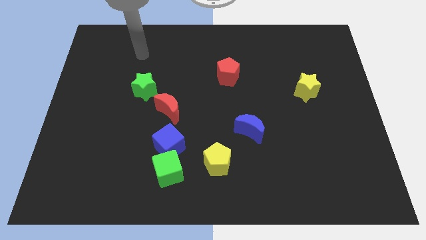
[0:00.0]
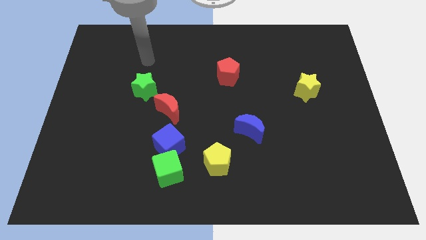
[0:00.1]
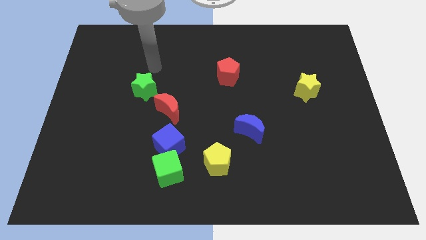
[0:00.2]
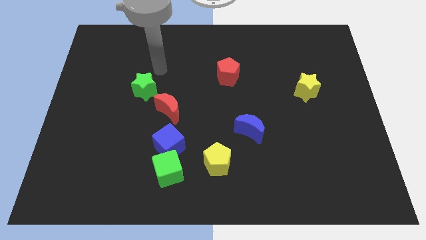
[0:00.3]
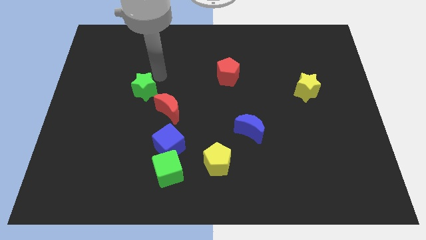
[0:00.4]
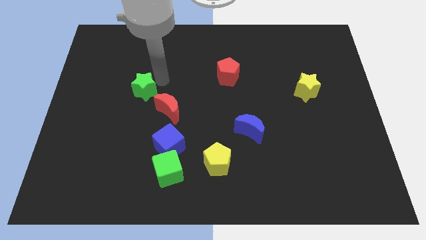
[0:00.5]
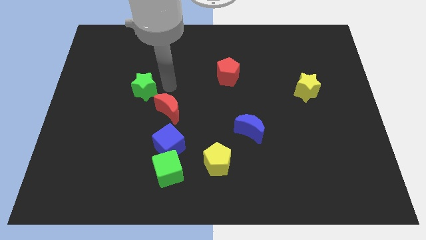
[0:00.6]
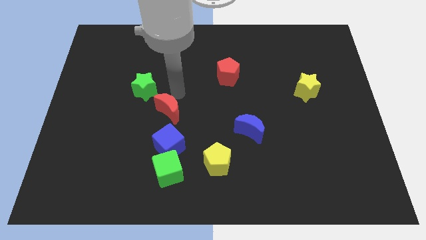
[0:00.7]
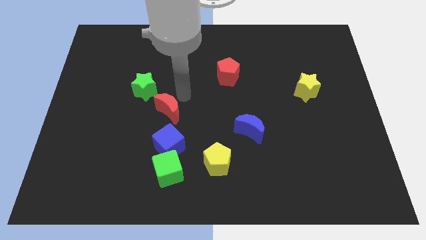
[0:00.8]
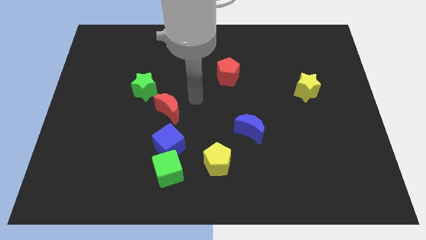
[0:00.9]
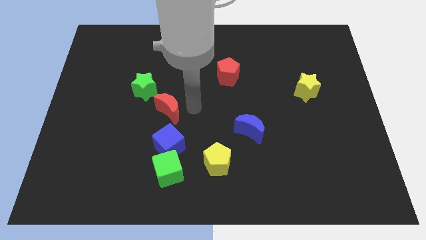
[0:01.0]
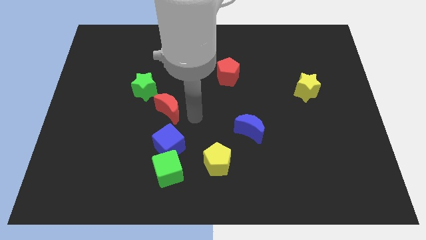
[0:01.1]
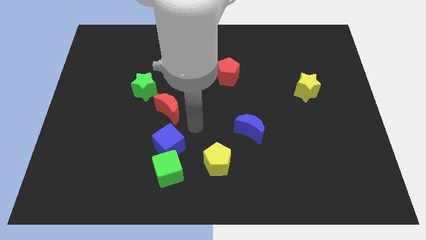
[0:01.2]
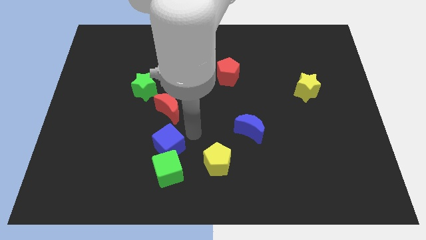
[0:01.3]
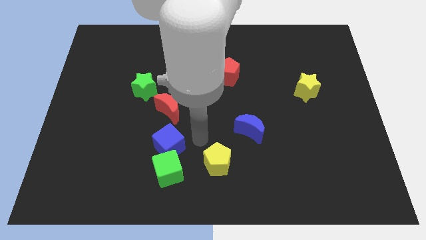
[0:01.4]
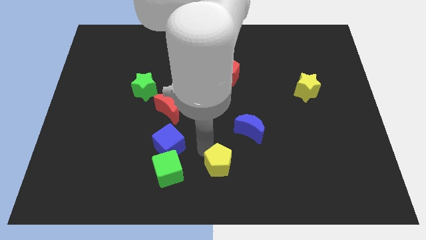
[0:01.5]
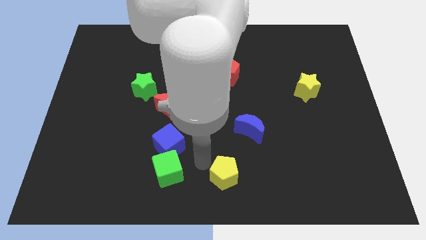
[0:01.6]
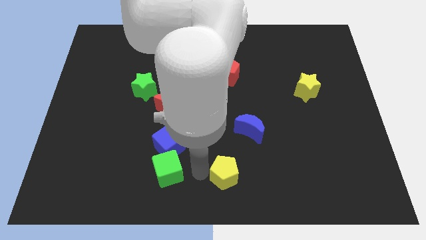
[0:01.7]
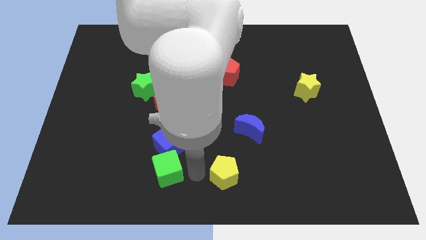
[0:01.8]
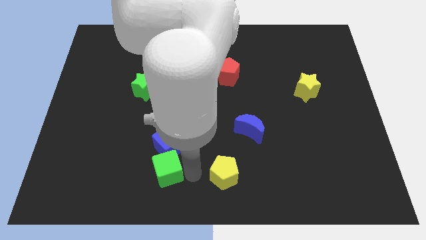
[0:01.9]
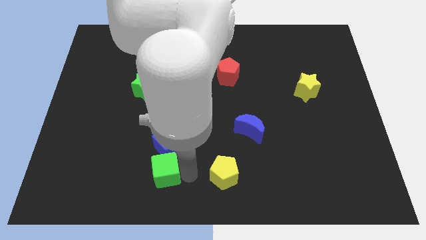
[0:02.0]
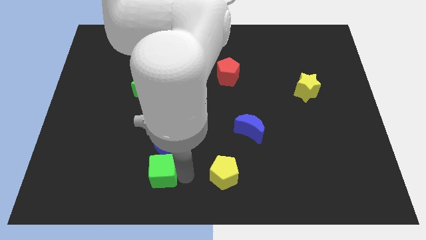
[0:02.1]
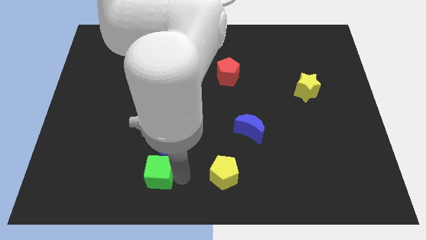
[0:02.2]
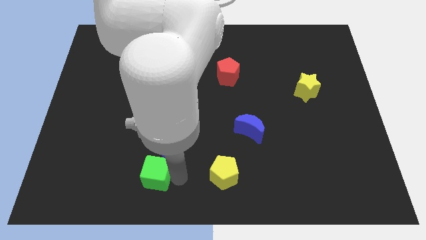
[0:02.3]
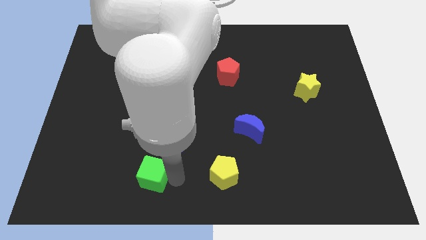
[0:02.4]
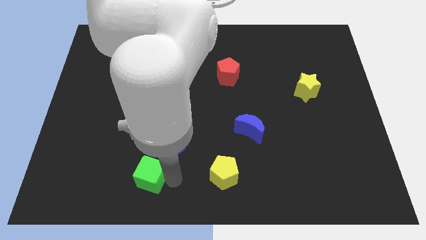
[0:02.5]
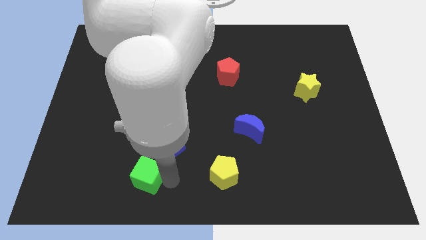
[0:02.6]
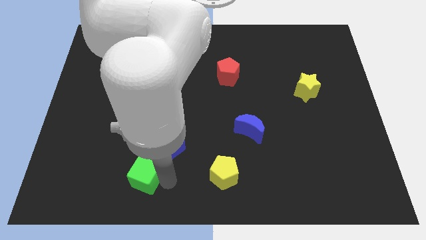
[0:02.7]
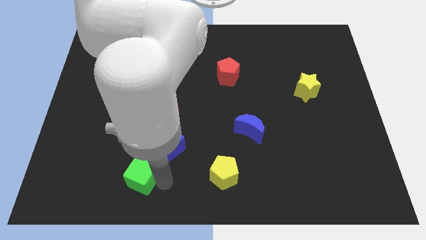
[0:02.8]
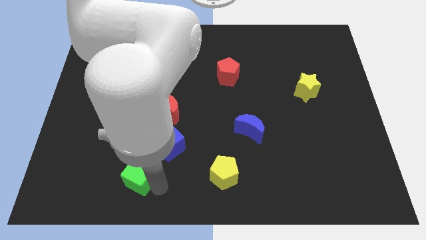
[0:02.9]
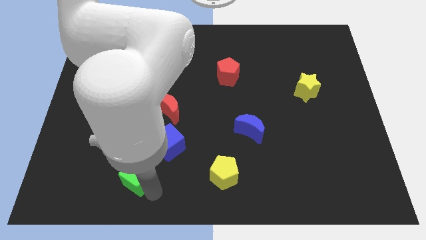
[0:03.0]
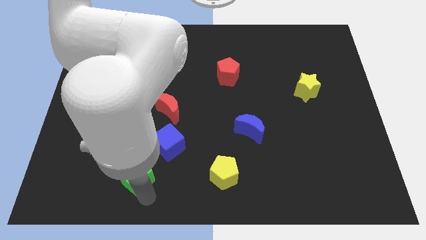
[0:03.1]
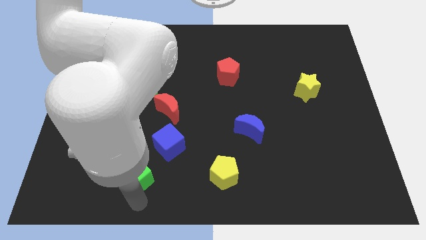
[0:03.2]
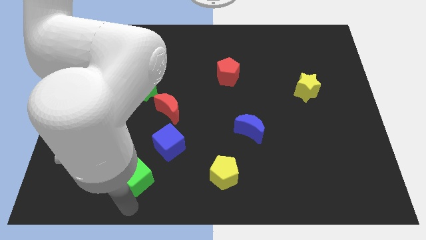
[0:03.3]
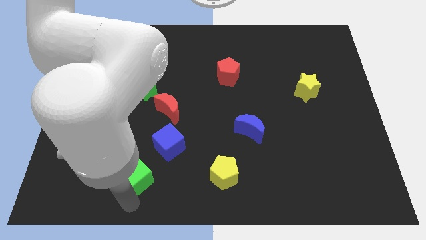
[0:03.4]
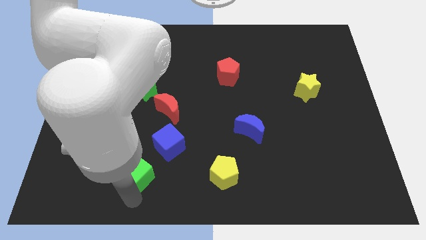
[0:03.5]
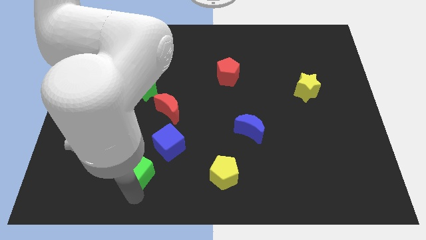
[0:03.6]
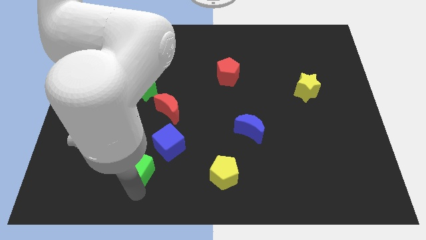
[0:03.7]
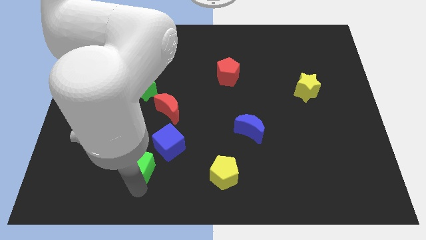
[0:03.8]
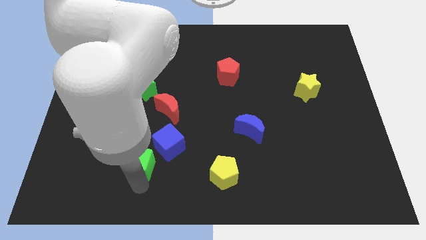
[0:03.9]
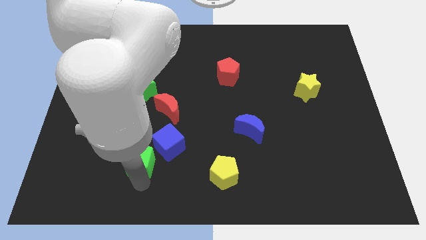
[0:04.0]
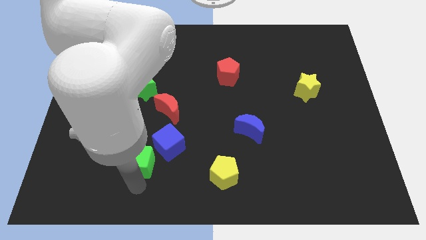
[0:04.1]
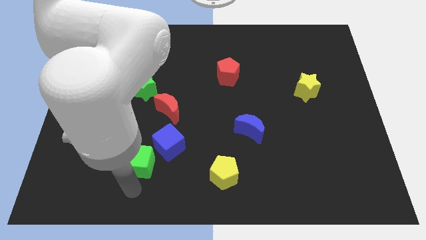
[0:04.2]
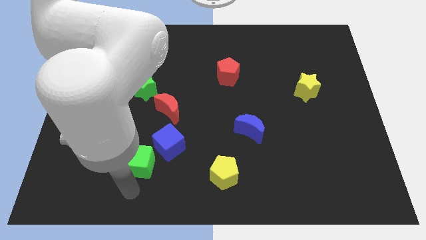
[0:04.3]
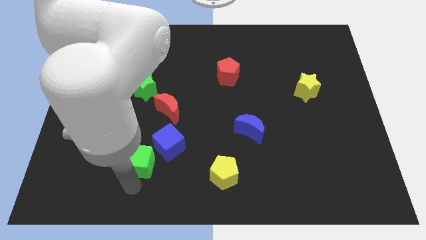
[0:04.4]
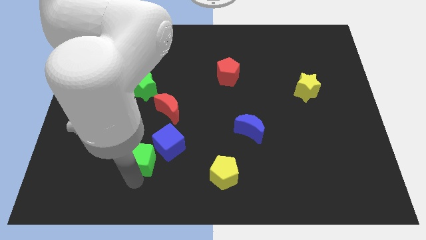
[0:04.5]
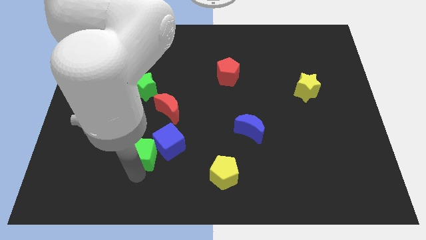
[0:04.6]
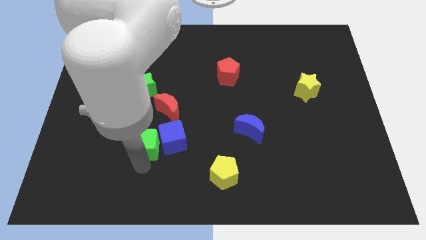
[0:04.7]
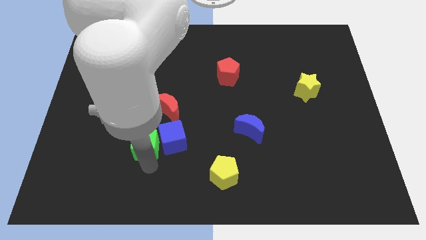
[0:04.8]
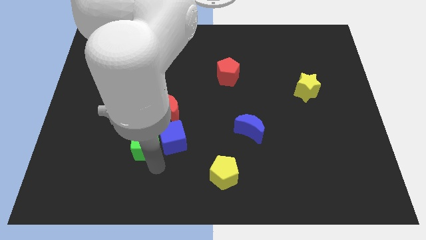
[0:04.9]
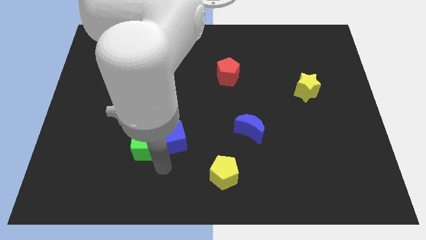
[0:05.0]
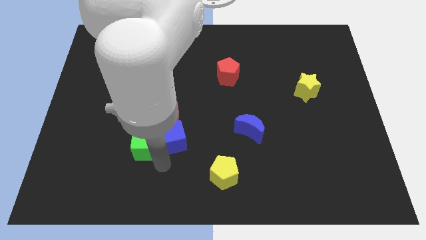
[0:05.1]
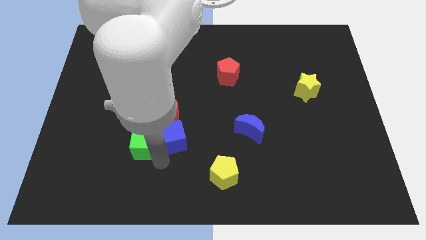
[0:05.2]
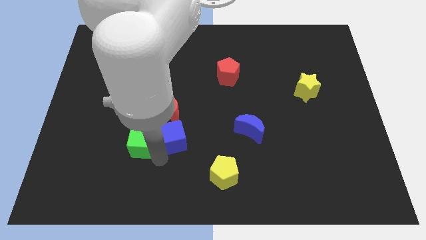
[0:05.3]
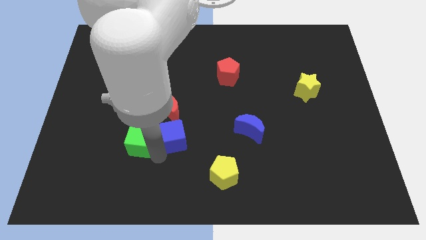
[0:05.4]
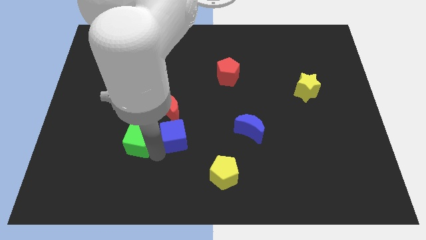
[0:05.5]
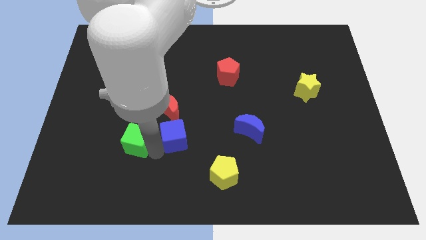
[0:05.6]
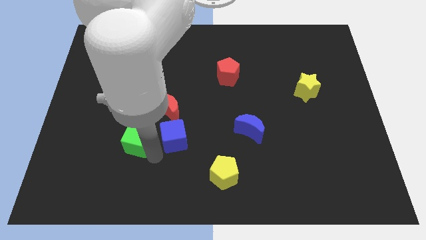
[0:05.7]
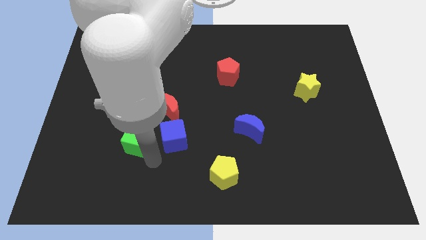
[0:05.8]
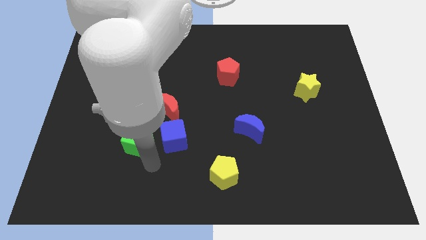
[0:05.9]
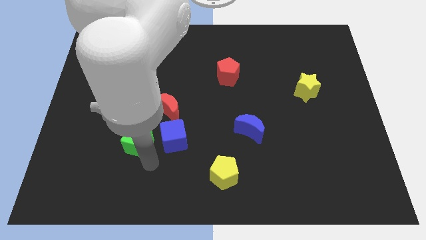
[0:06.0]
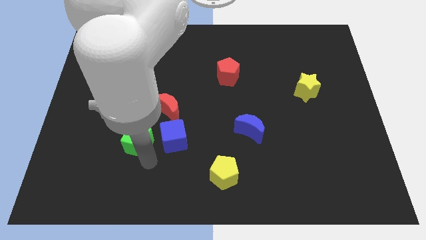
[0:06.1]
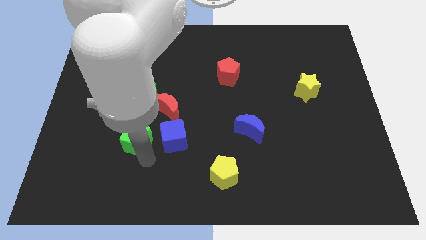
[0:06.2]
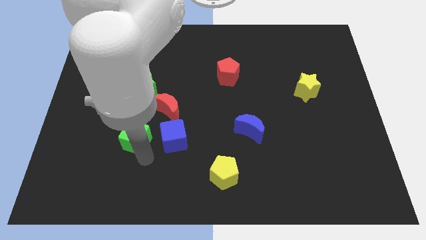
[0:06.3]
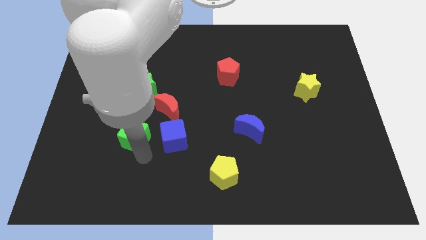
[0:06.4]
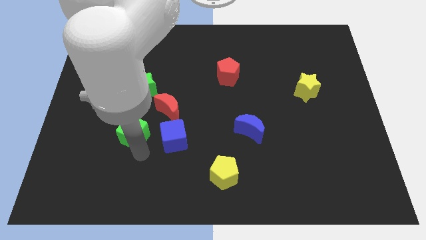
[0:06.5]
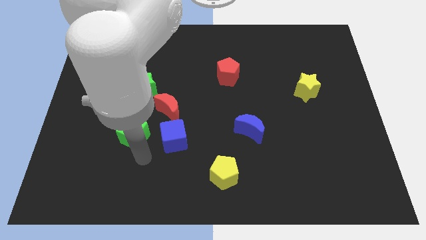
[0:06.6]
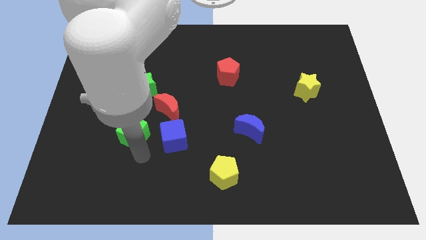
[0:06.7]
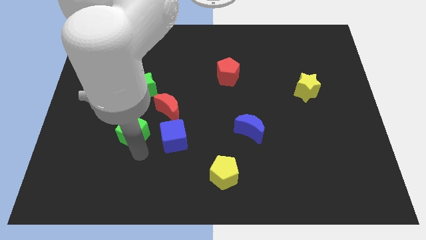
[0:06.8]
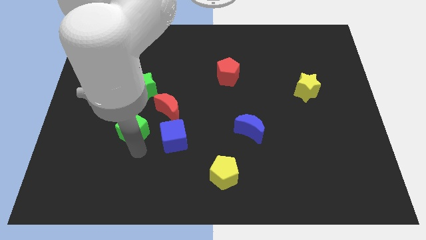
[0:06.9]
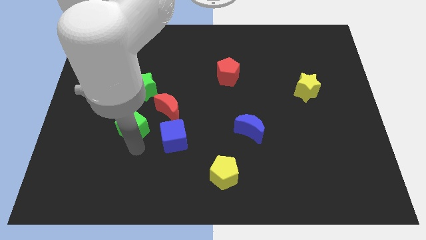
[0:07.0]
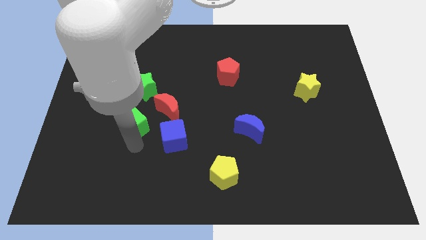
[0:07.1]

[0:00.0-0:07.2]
slide the green cube left of the red moon

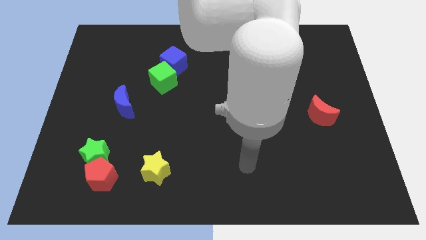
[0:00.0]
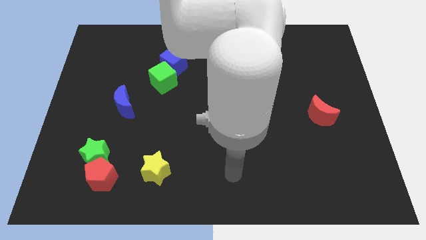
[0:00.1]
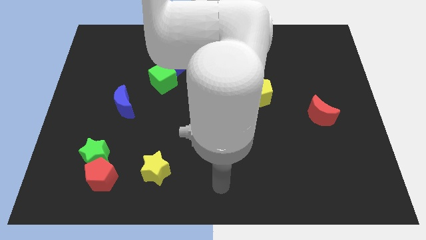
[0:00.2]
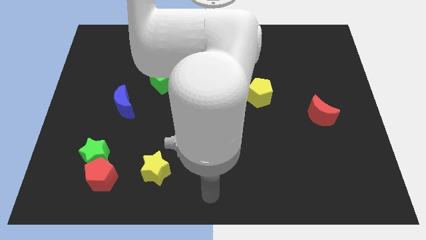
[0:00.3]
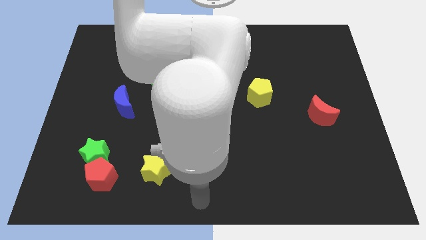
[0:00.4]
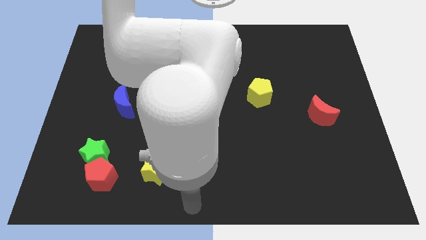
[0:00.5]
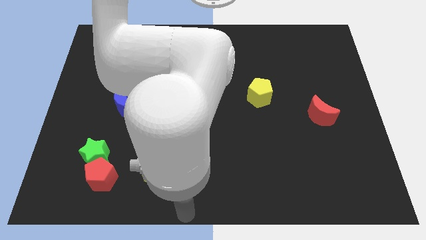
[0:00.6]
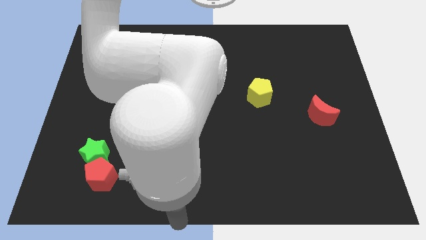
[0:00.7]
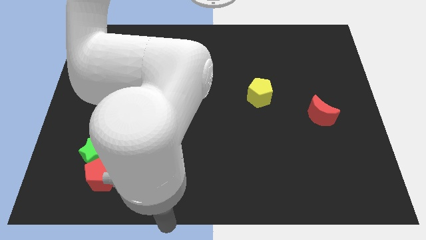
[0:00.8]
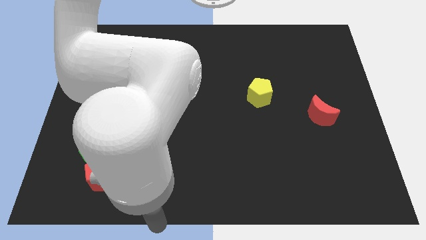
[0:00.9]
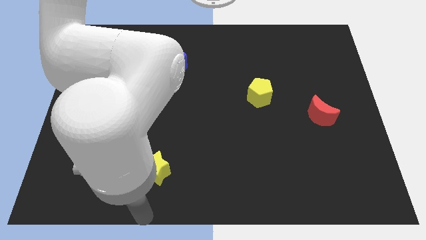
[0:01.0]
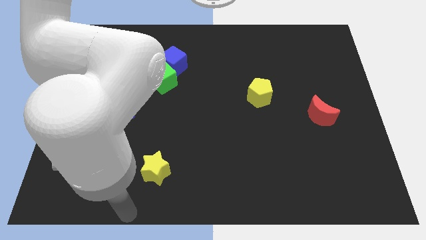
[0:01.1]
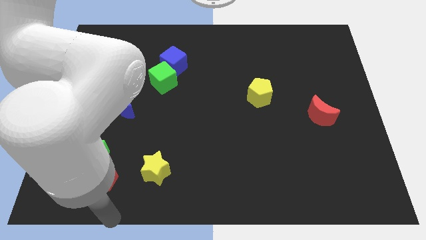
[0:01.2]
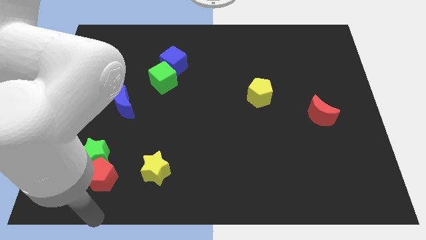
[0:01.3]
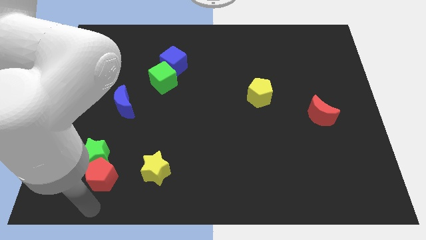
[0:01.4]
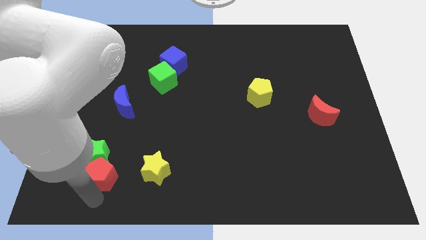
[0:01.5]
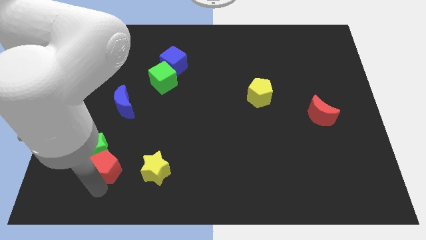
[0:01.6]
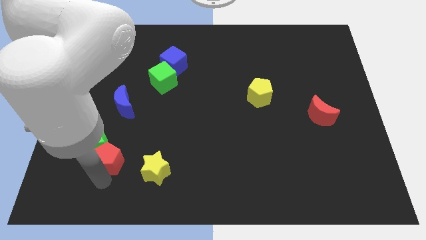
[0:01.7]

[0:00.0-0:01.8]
push the red pentagon to the bottom of the blue moon
